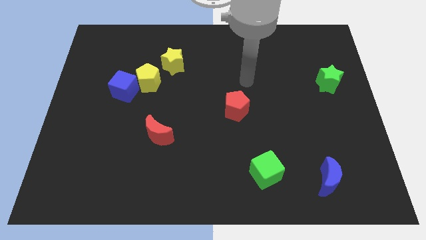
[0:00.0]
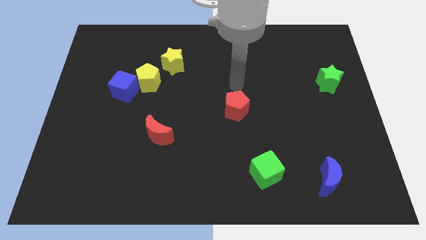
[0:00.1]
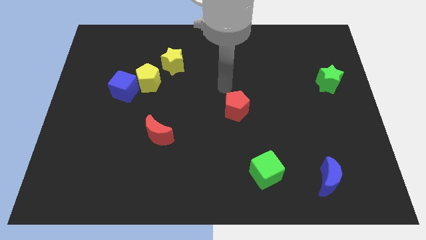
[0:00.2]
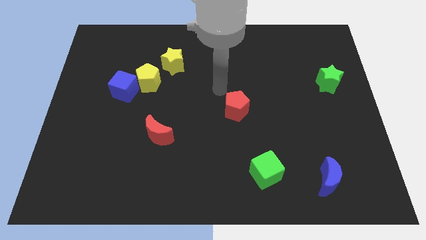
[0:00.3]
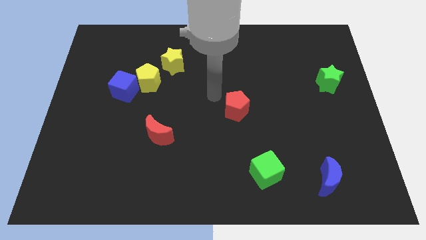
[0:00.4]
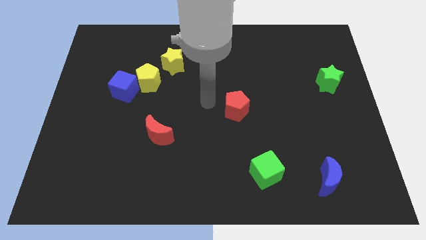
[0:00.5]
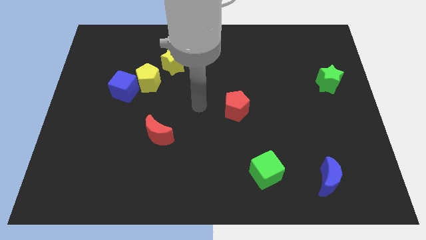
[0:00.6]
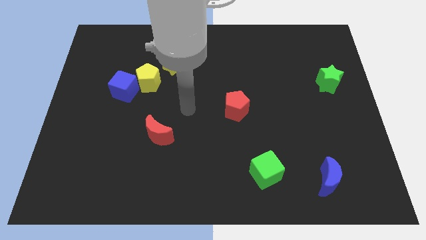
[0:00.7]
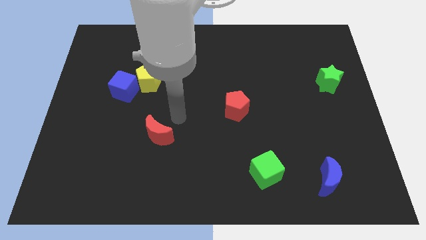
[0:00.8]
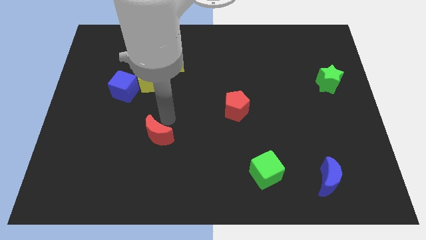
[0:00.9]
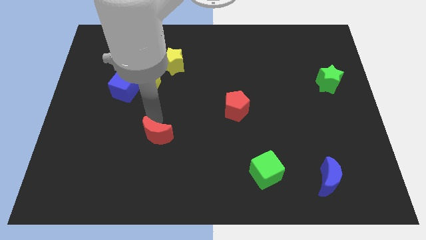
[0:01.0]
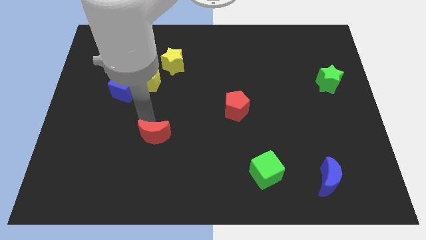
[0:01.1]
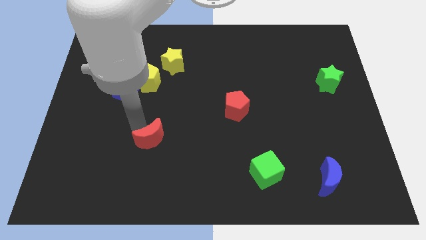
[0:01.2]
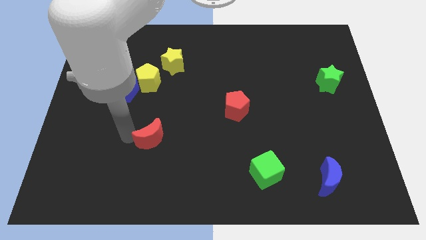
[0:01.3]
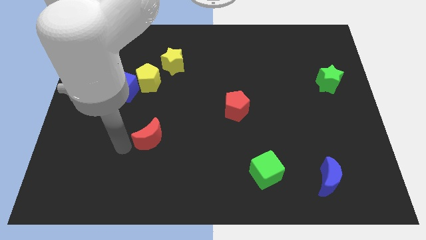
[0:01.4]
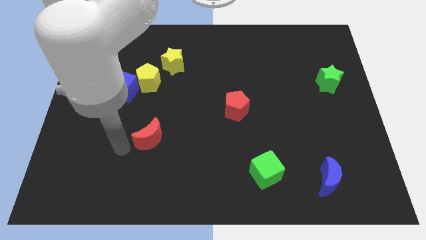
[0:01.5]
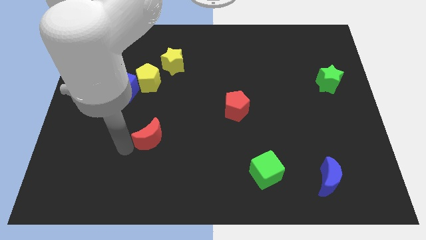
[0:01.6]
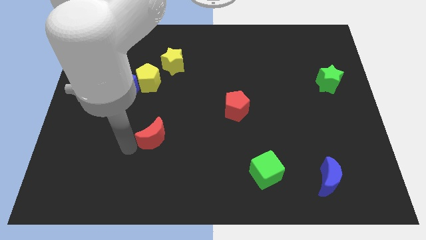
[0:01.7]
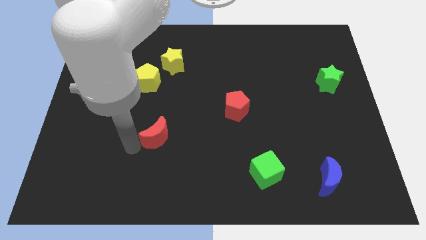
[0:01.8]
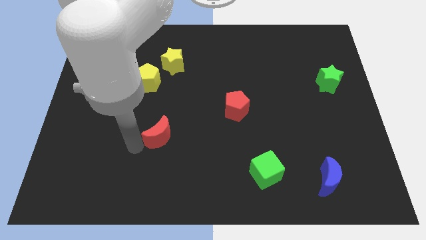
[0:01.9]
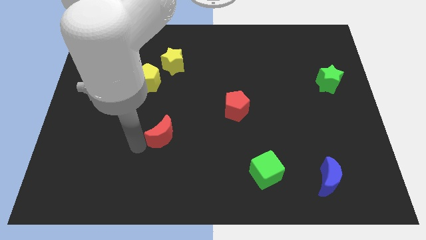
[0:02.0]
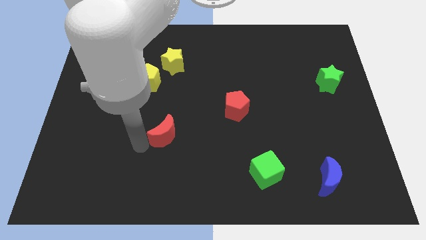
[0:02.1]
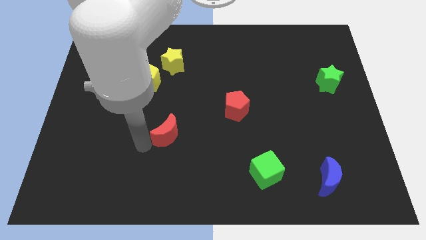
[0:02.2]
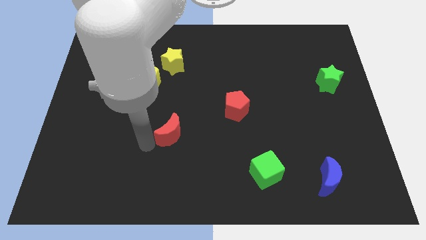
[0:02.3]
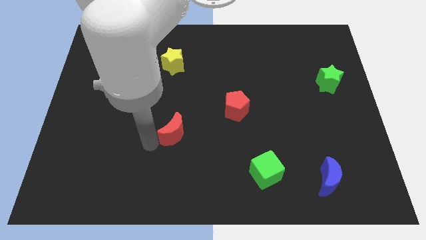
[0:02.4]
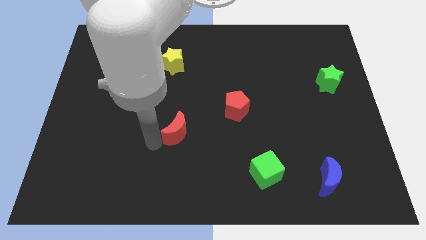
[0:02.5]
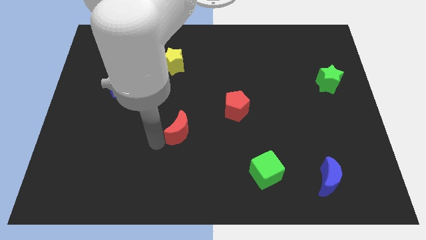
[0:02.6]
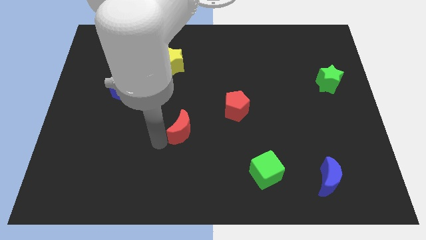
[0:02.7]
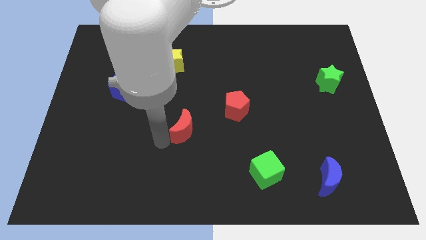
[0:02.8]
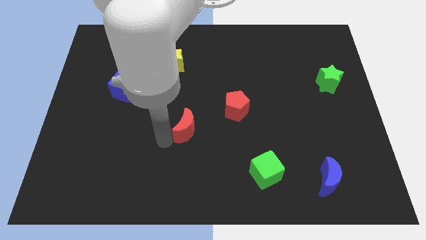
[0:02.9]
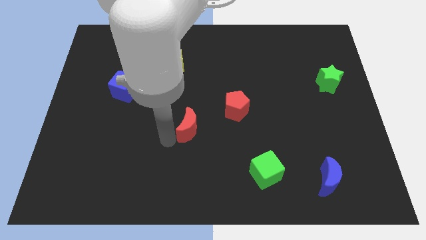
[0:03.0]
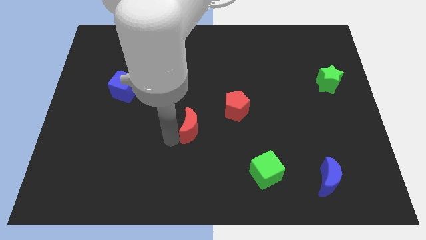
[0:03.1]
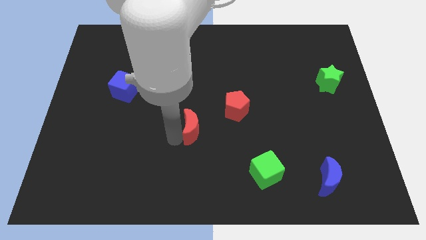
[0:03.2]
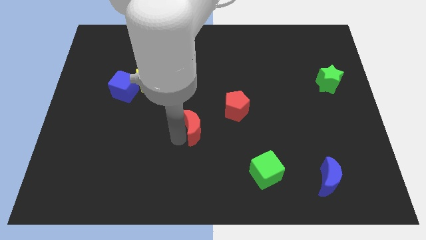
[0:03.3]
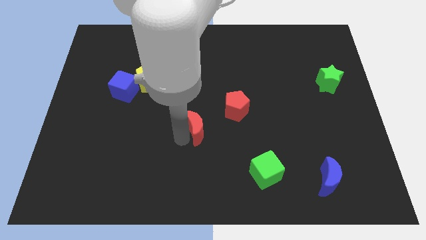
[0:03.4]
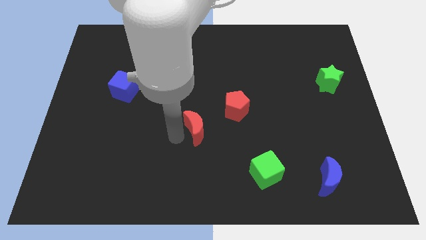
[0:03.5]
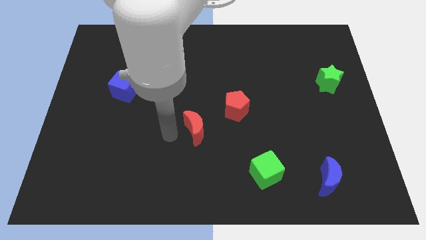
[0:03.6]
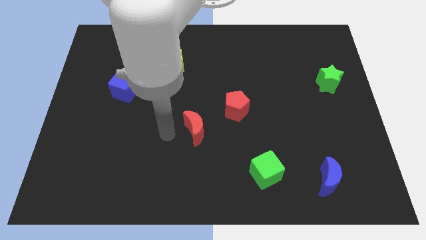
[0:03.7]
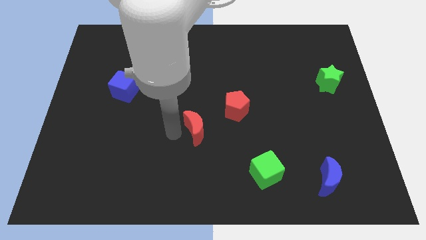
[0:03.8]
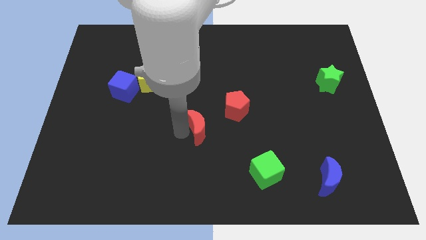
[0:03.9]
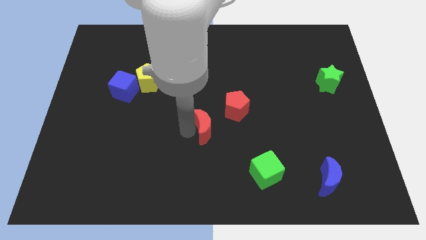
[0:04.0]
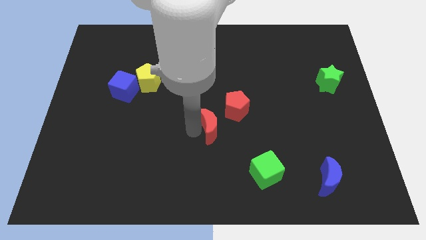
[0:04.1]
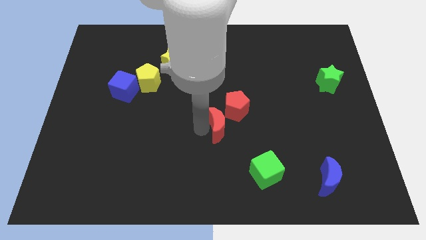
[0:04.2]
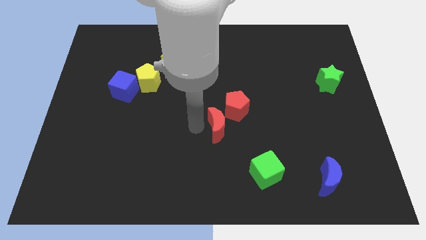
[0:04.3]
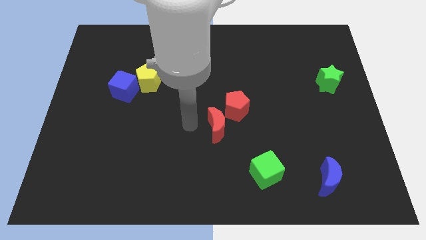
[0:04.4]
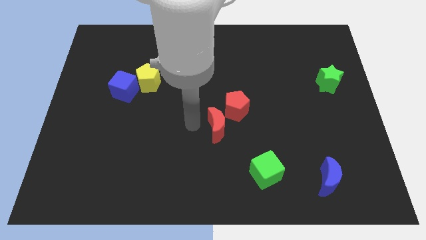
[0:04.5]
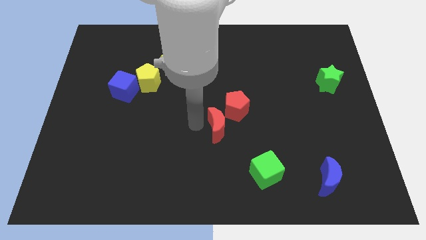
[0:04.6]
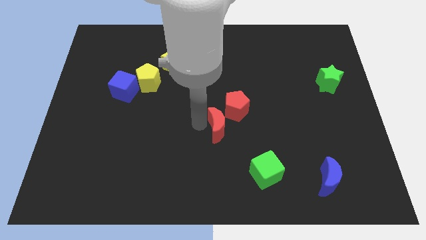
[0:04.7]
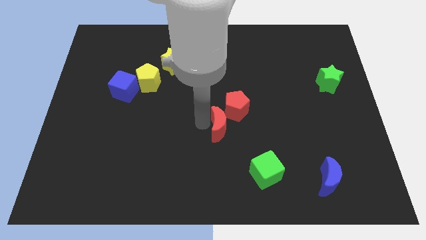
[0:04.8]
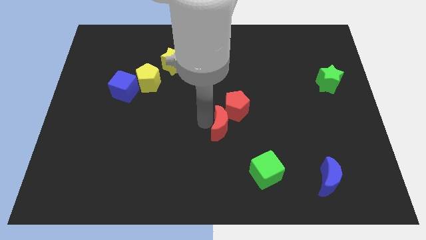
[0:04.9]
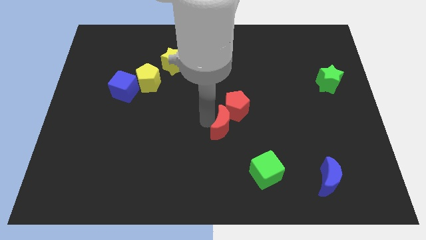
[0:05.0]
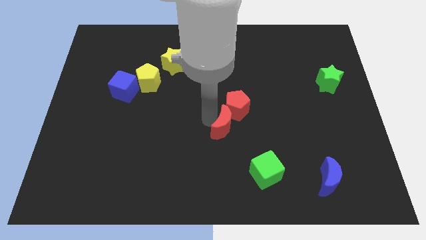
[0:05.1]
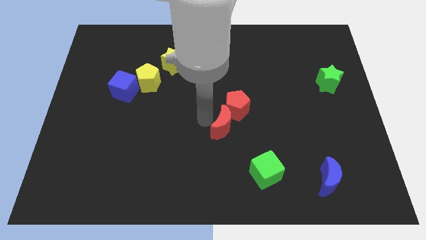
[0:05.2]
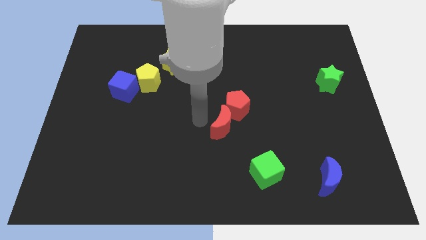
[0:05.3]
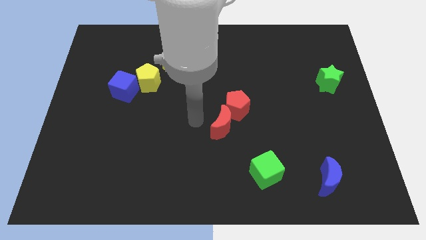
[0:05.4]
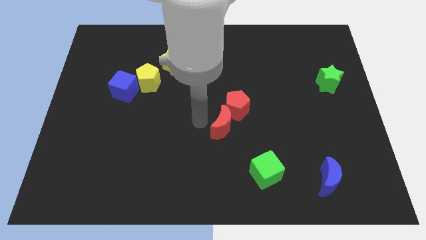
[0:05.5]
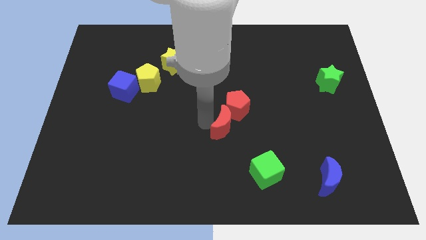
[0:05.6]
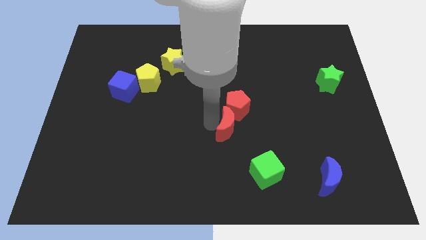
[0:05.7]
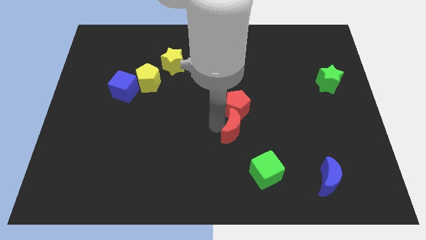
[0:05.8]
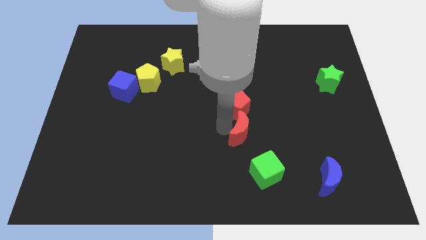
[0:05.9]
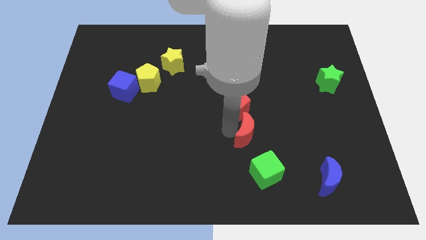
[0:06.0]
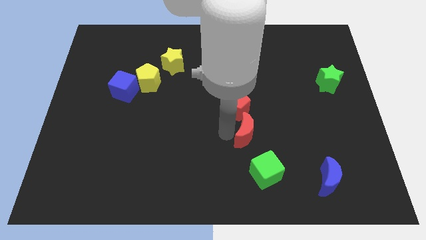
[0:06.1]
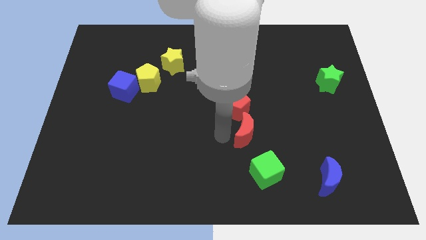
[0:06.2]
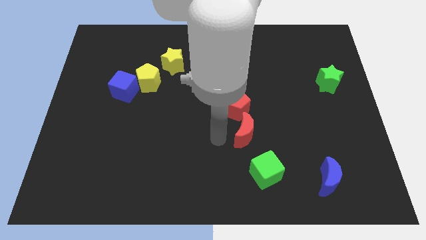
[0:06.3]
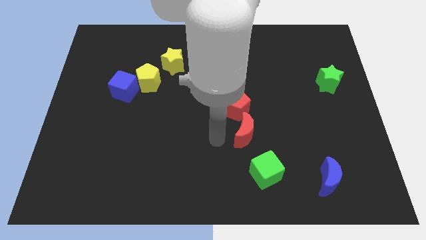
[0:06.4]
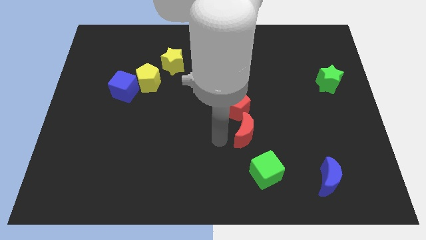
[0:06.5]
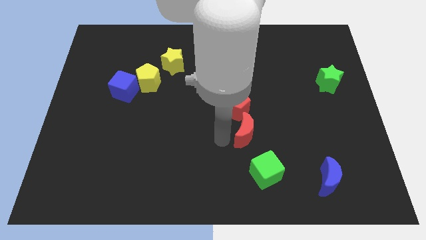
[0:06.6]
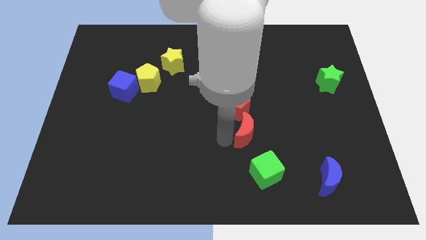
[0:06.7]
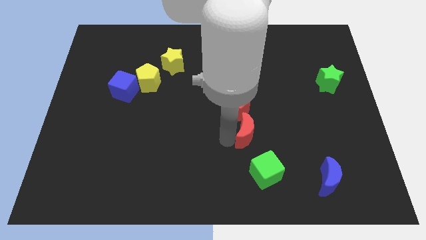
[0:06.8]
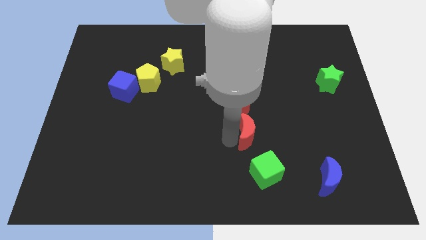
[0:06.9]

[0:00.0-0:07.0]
push the red moon to the right

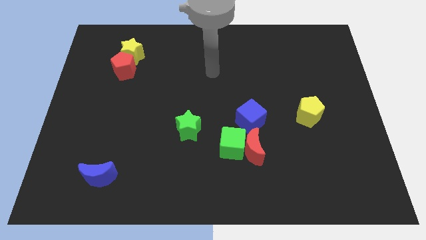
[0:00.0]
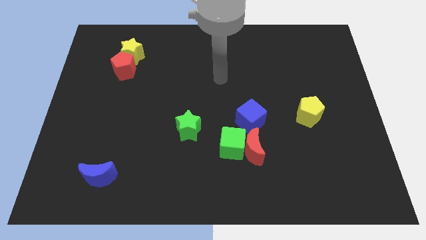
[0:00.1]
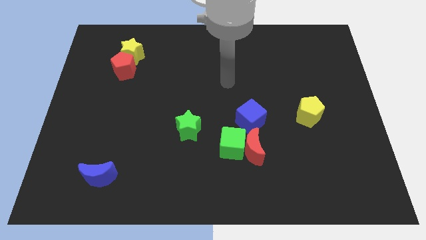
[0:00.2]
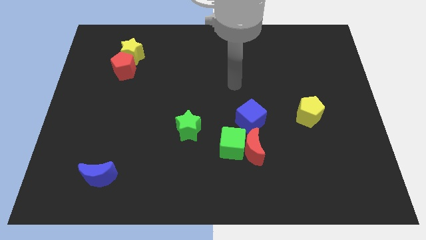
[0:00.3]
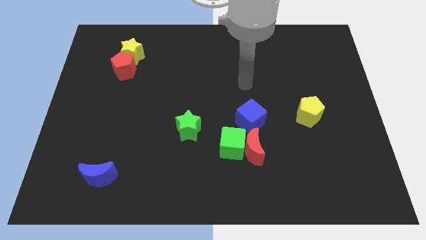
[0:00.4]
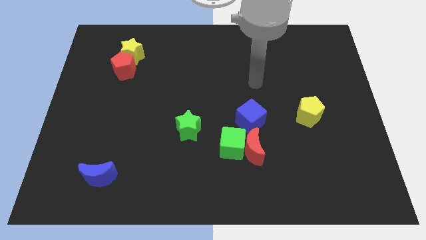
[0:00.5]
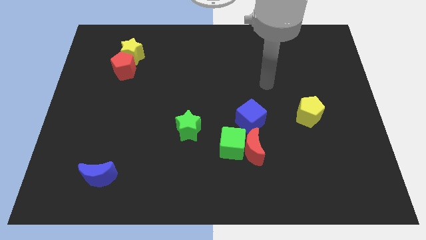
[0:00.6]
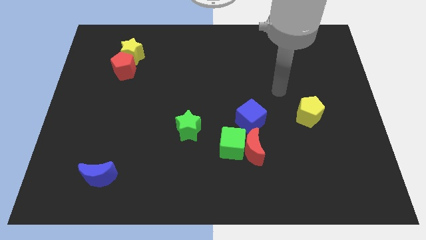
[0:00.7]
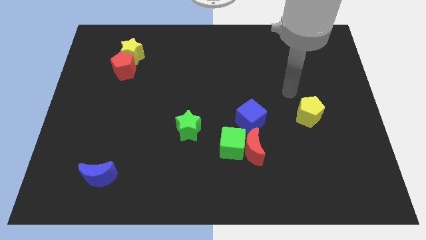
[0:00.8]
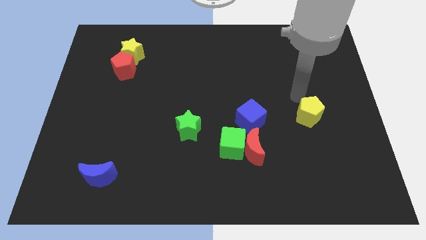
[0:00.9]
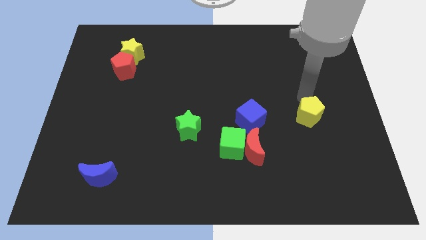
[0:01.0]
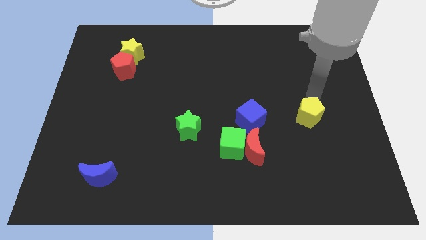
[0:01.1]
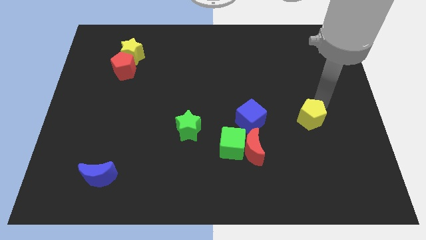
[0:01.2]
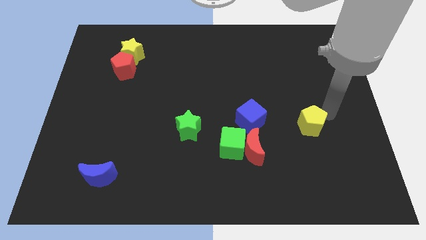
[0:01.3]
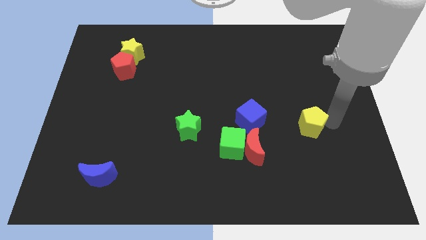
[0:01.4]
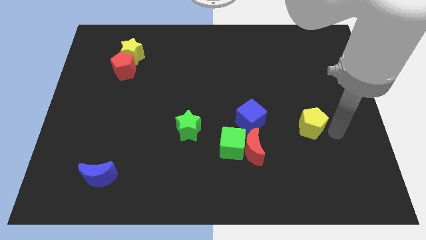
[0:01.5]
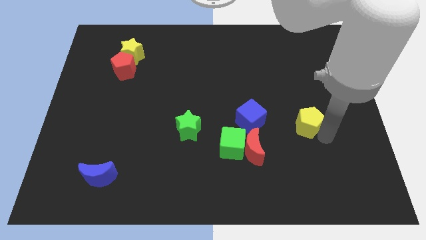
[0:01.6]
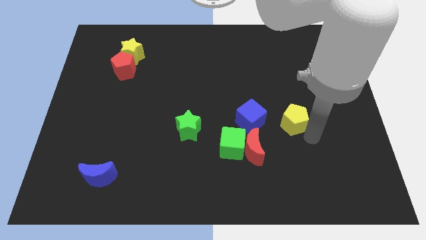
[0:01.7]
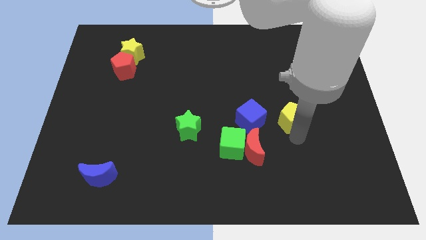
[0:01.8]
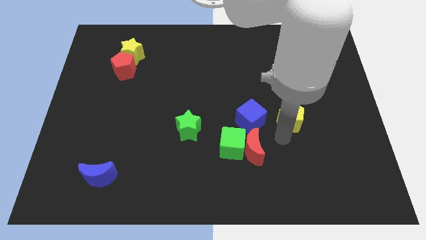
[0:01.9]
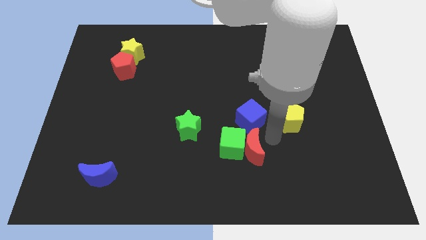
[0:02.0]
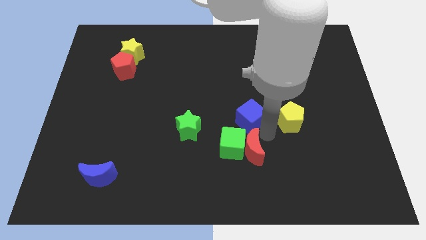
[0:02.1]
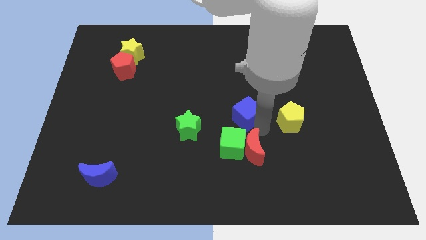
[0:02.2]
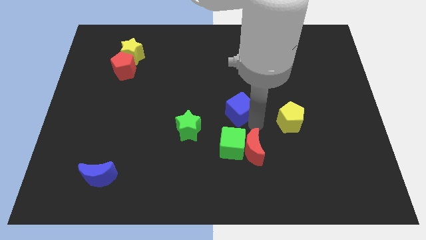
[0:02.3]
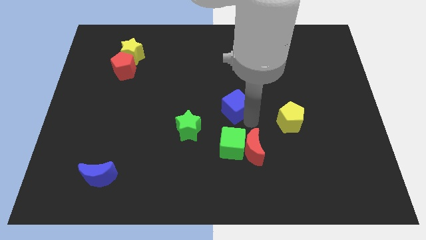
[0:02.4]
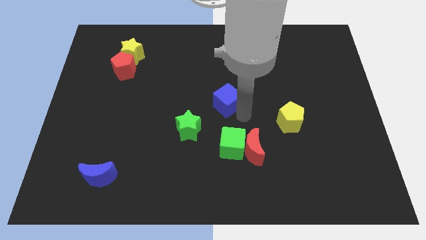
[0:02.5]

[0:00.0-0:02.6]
push the blue cube diagonally upwards and to the left slightly
